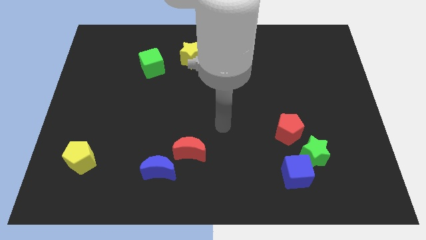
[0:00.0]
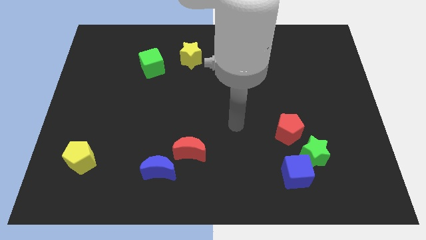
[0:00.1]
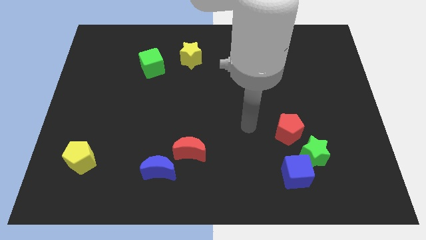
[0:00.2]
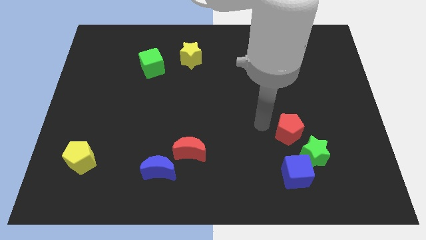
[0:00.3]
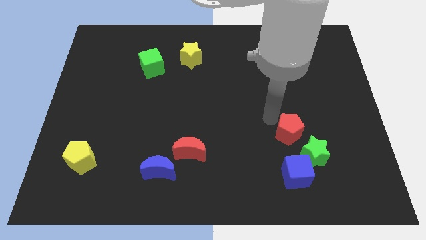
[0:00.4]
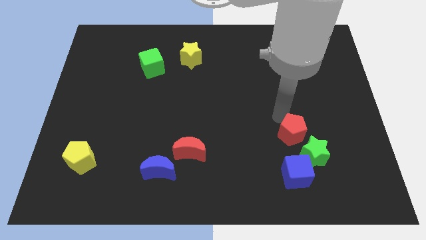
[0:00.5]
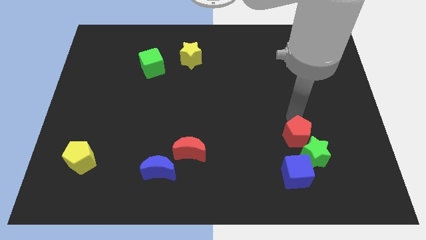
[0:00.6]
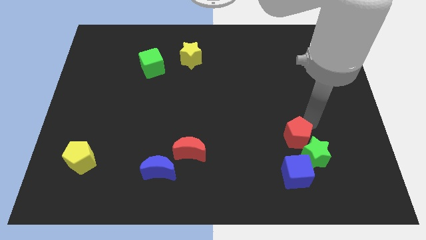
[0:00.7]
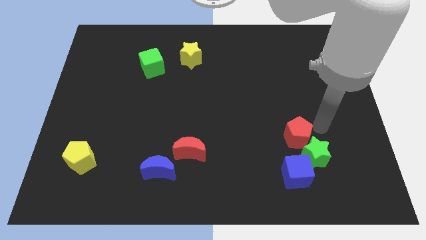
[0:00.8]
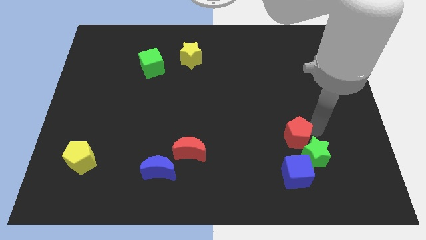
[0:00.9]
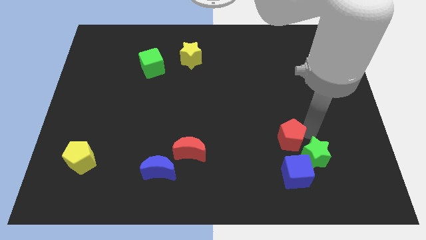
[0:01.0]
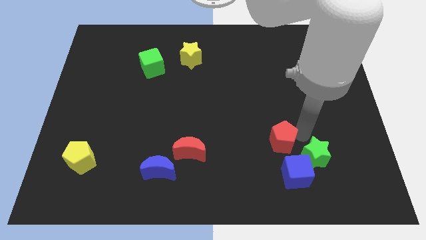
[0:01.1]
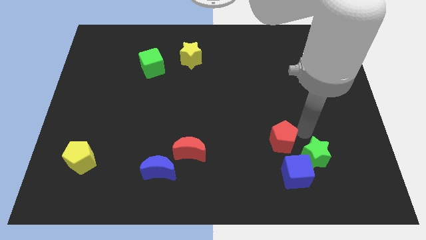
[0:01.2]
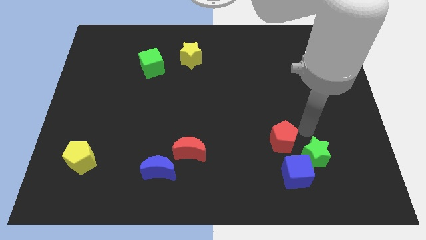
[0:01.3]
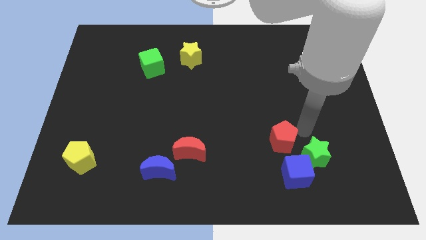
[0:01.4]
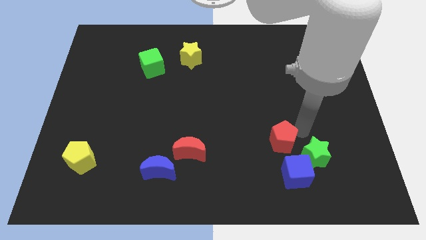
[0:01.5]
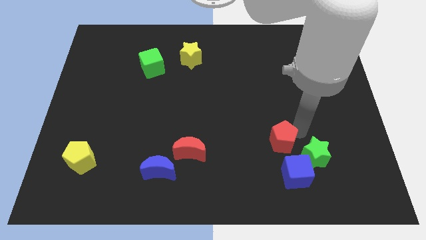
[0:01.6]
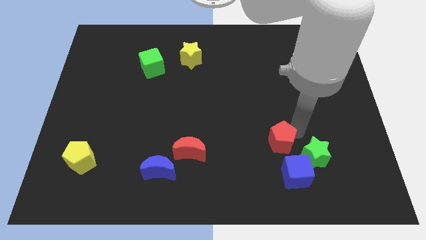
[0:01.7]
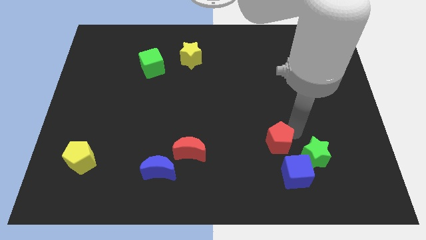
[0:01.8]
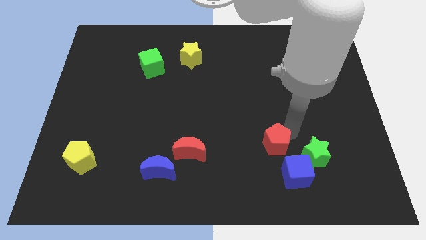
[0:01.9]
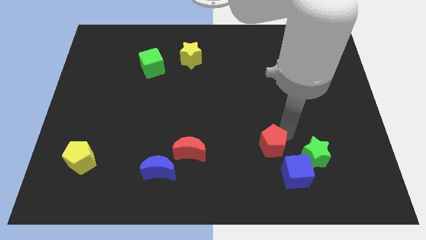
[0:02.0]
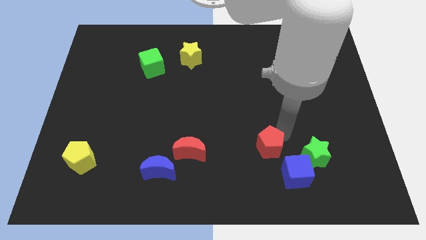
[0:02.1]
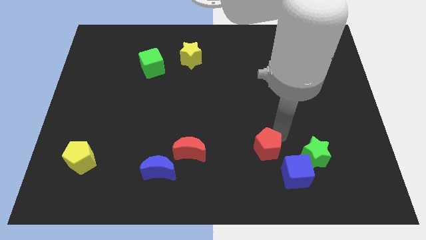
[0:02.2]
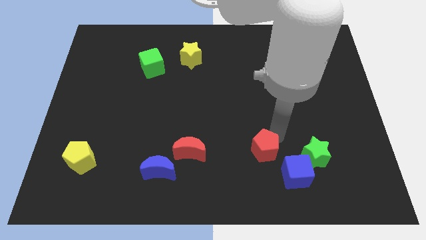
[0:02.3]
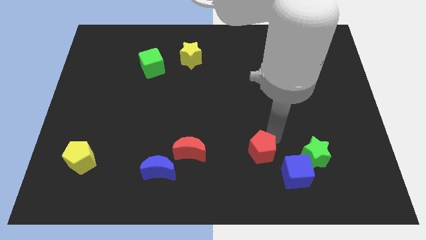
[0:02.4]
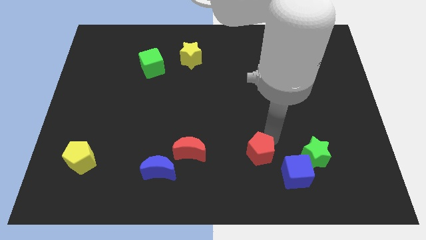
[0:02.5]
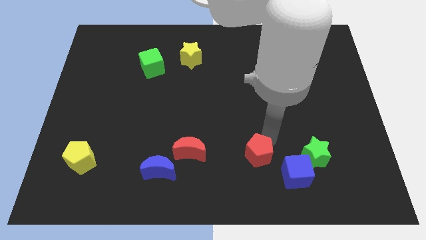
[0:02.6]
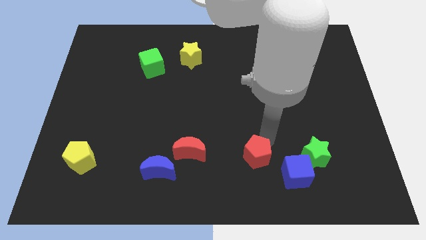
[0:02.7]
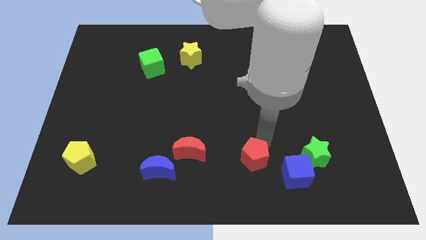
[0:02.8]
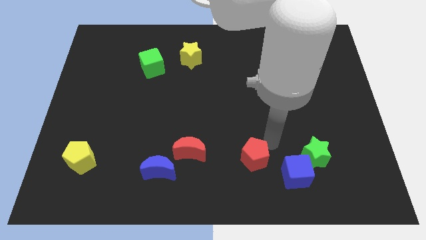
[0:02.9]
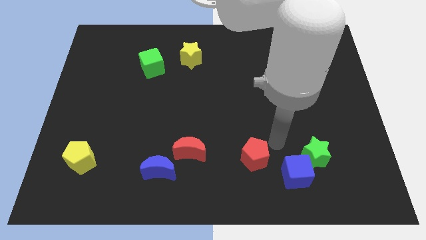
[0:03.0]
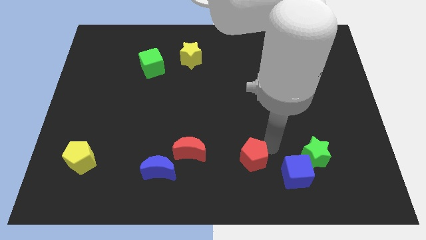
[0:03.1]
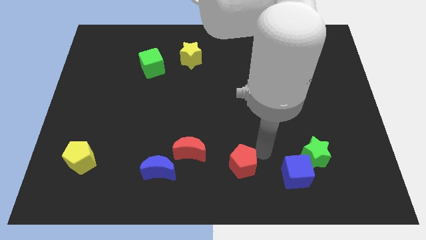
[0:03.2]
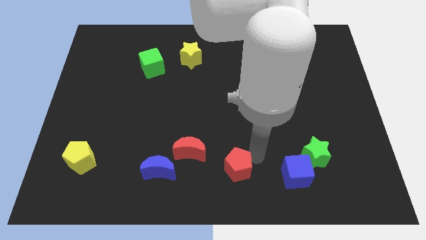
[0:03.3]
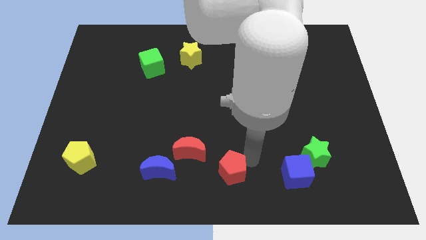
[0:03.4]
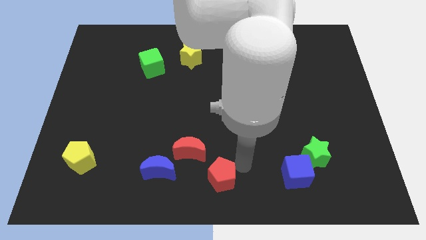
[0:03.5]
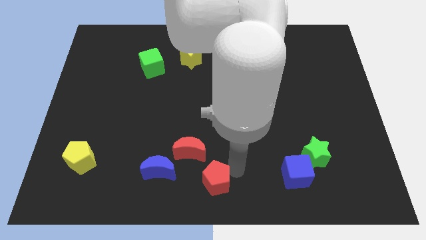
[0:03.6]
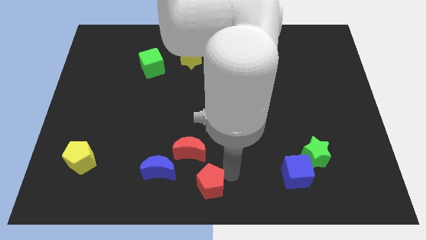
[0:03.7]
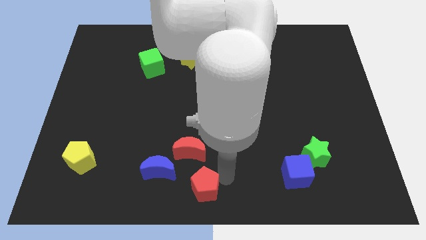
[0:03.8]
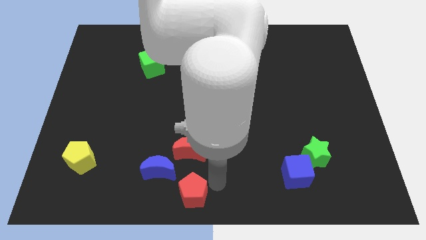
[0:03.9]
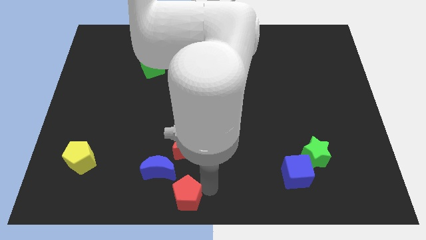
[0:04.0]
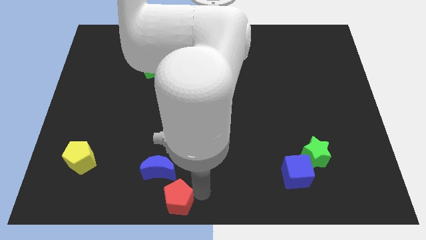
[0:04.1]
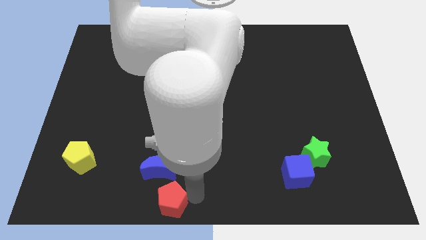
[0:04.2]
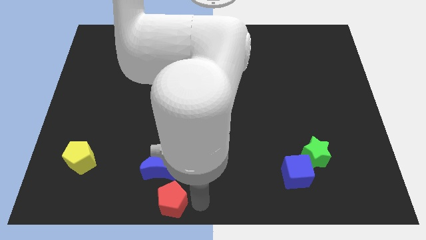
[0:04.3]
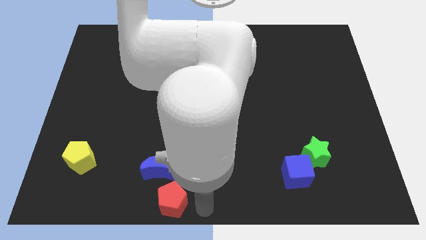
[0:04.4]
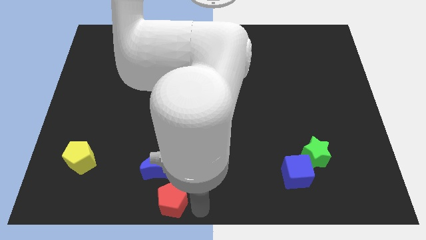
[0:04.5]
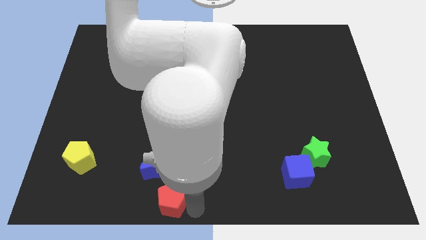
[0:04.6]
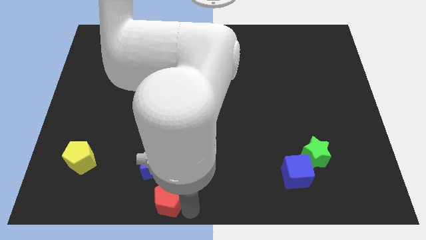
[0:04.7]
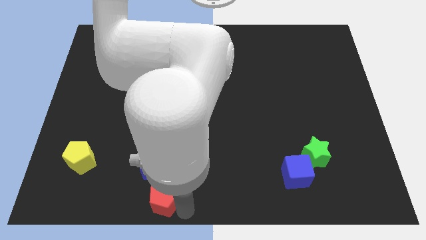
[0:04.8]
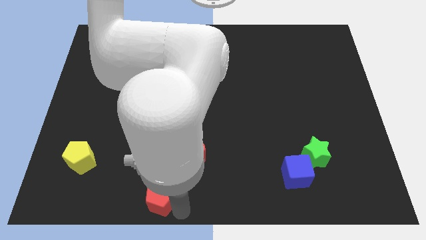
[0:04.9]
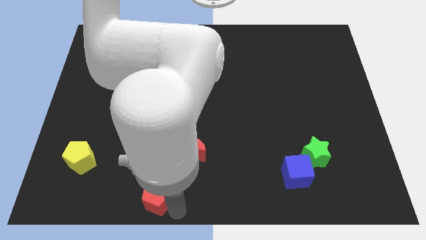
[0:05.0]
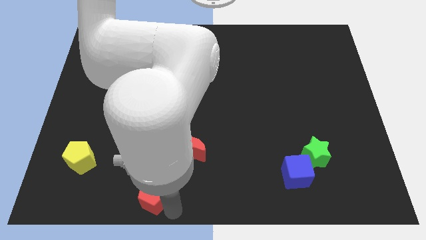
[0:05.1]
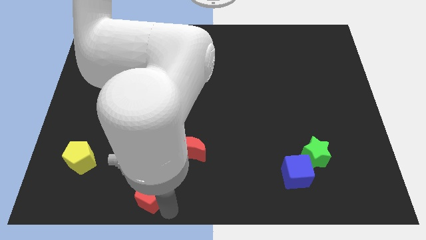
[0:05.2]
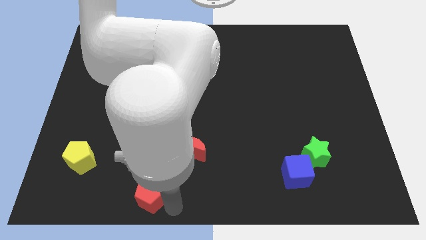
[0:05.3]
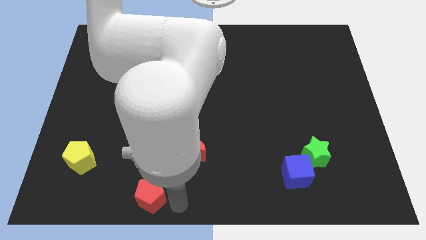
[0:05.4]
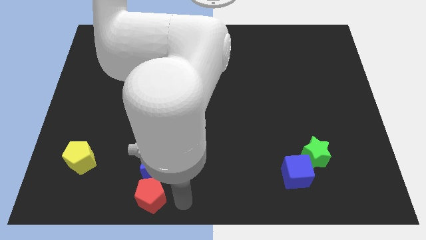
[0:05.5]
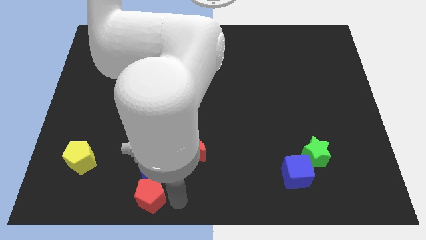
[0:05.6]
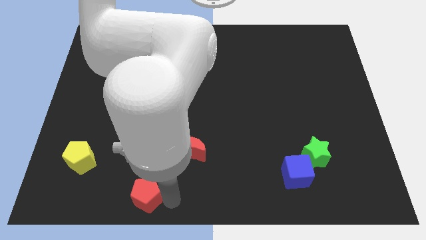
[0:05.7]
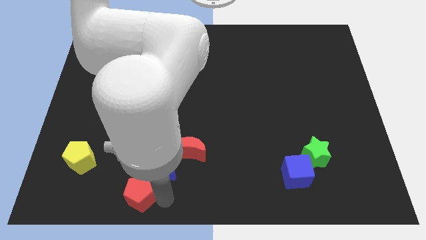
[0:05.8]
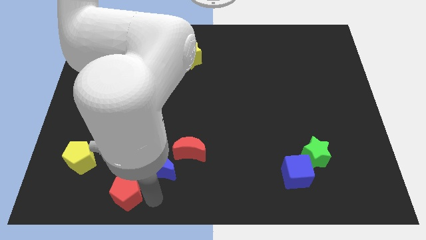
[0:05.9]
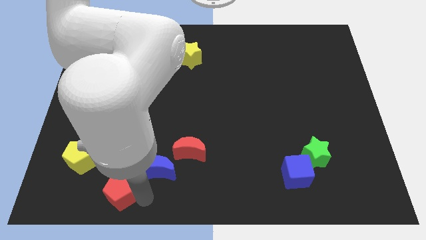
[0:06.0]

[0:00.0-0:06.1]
push the red pentagon to the bottom right side of the yellow pentagon

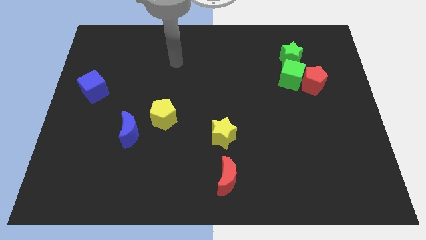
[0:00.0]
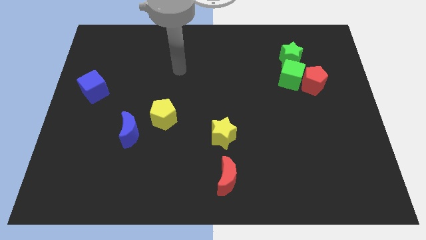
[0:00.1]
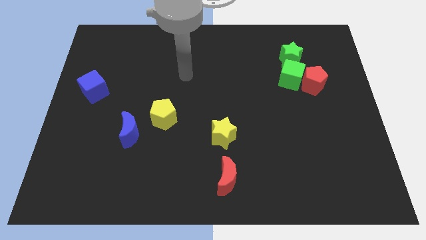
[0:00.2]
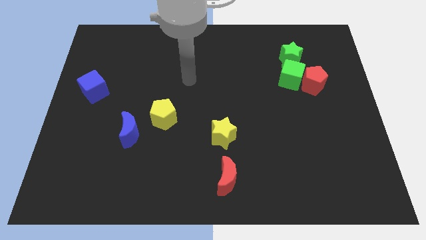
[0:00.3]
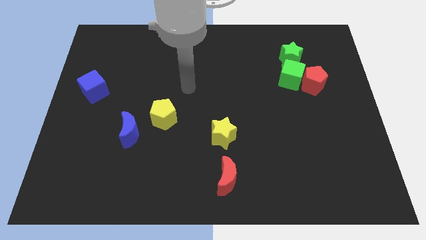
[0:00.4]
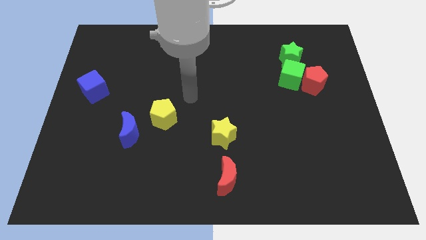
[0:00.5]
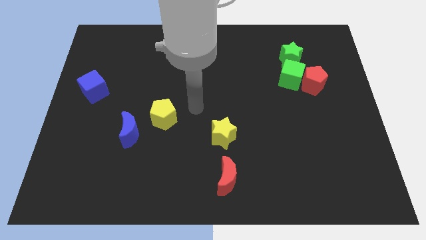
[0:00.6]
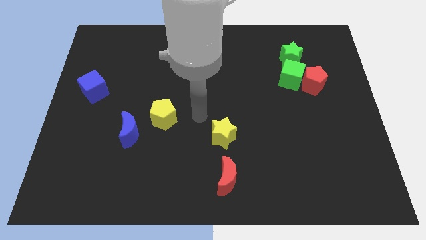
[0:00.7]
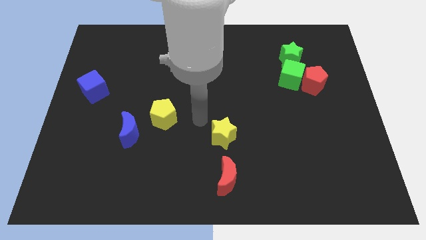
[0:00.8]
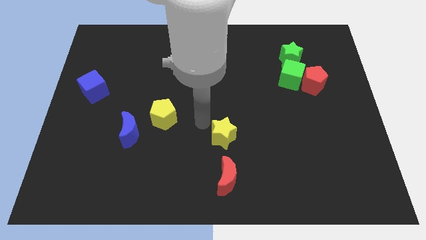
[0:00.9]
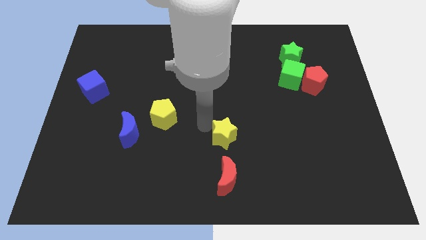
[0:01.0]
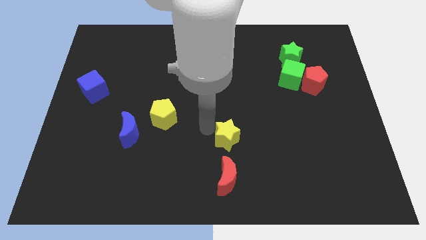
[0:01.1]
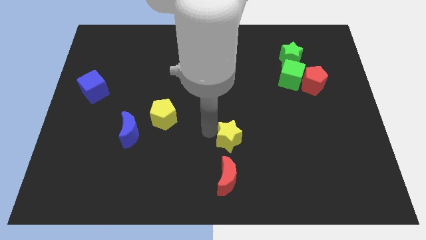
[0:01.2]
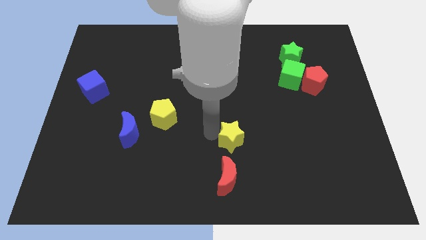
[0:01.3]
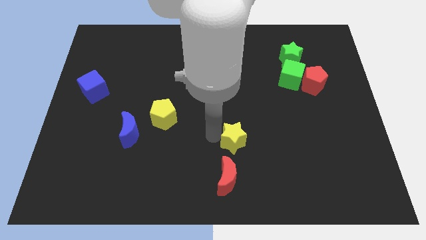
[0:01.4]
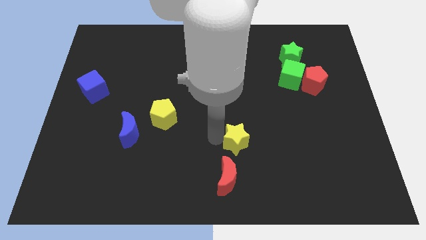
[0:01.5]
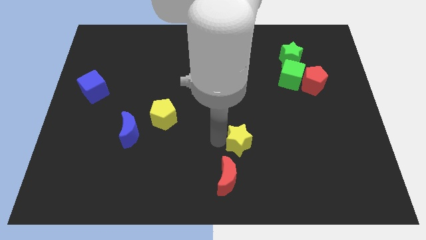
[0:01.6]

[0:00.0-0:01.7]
move the yellow star to the top right of the red moon
